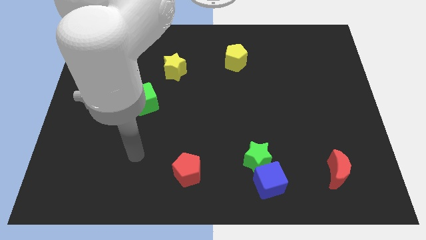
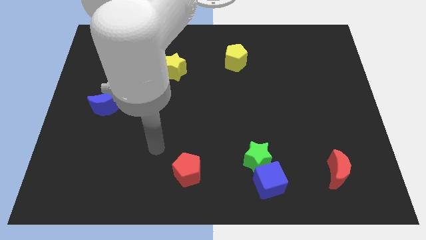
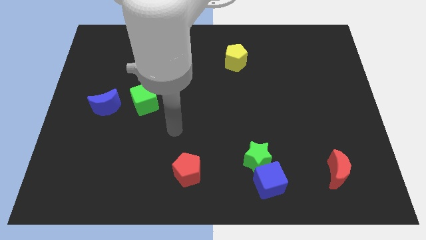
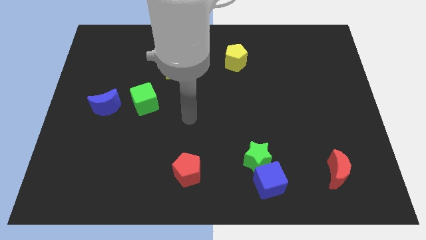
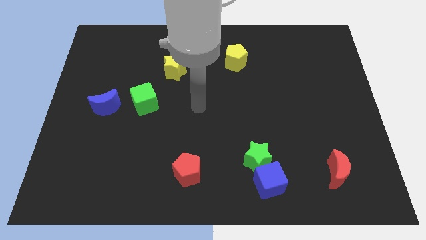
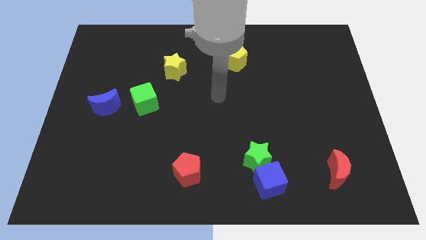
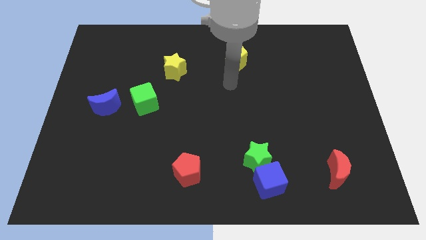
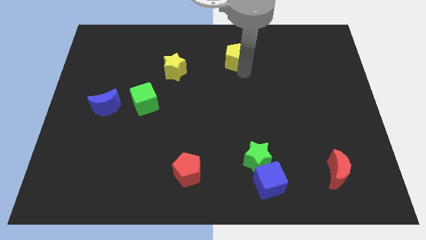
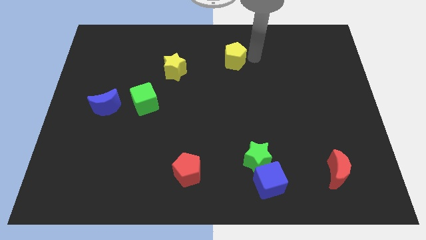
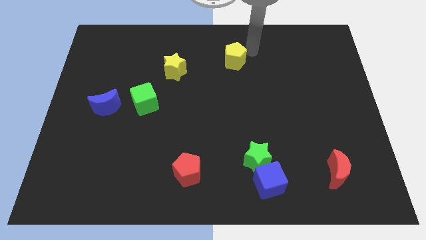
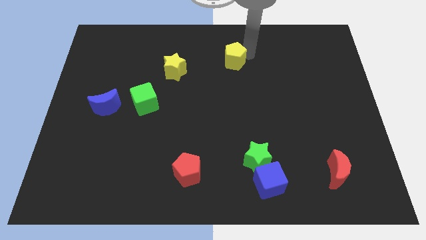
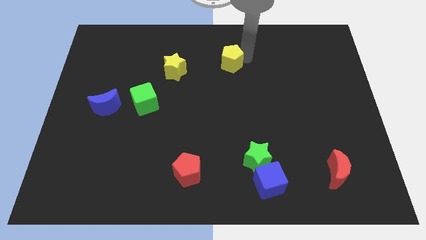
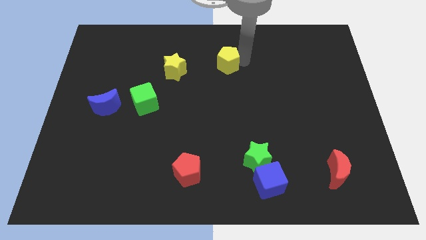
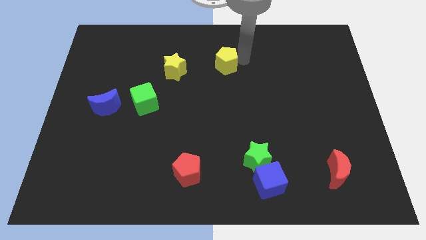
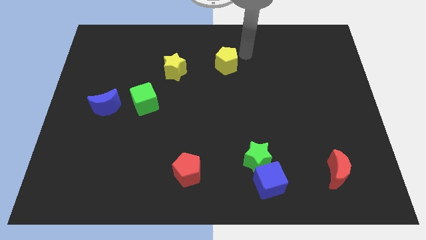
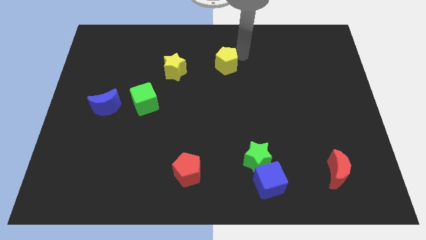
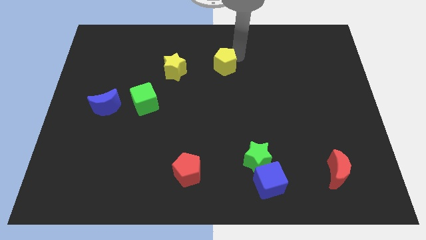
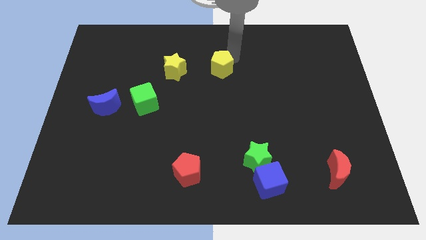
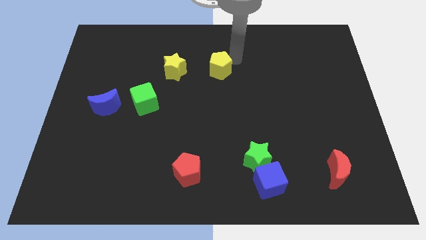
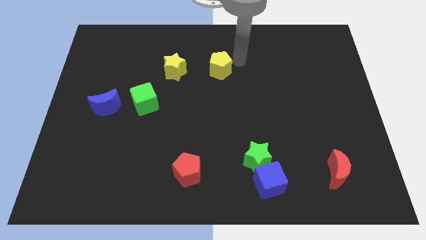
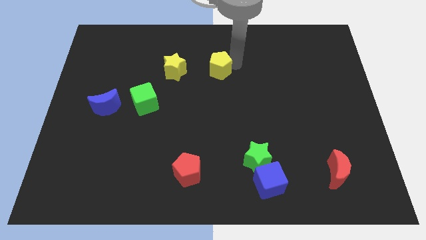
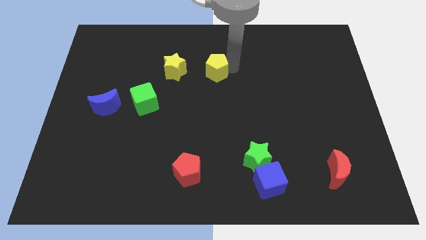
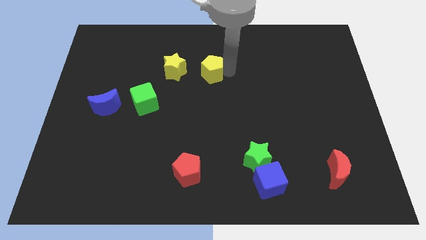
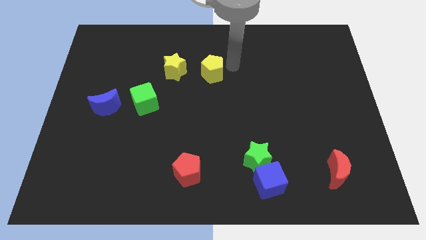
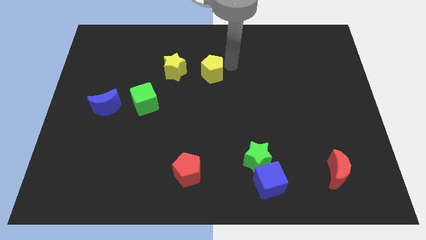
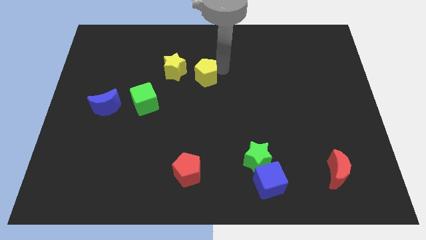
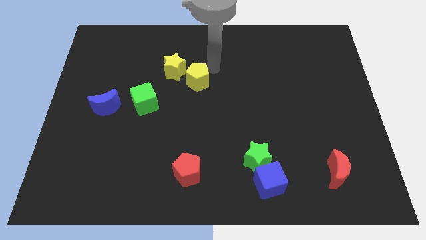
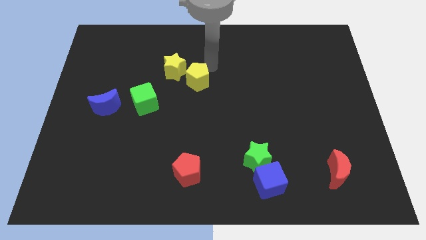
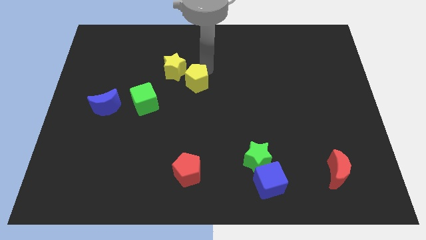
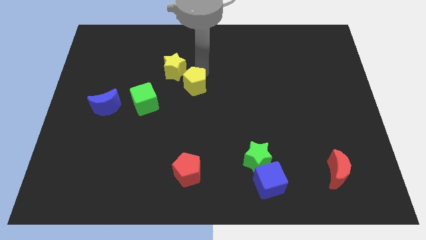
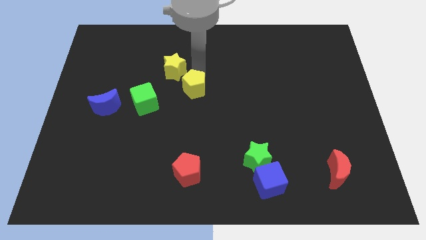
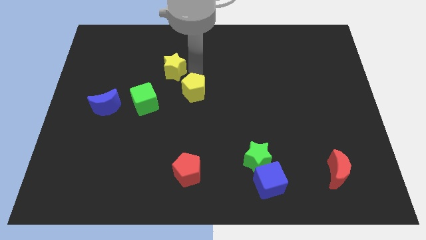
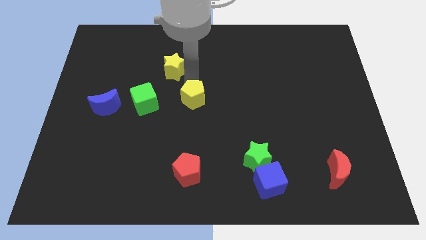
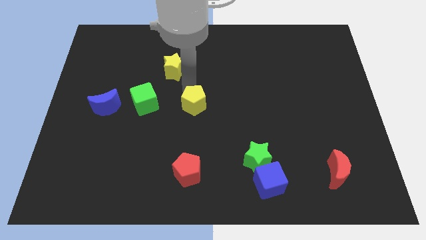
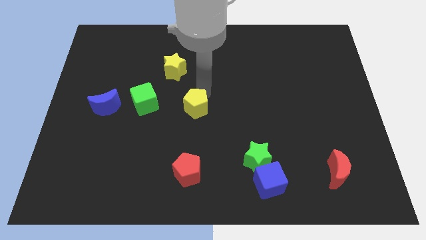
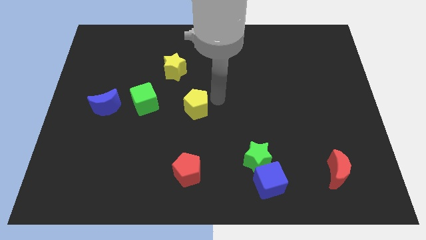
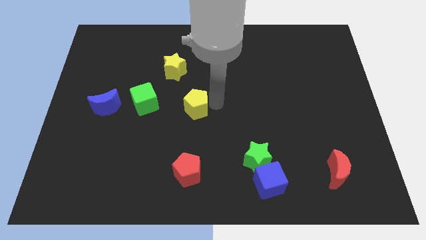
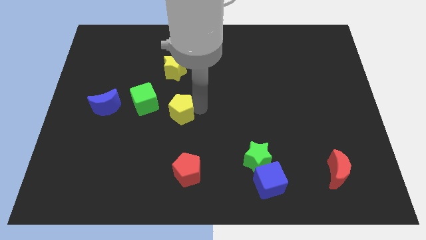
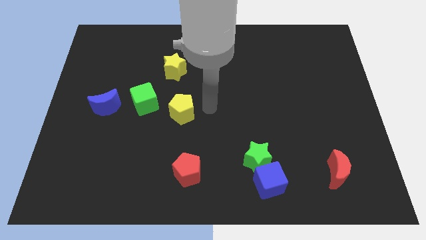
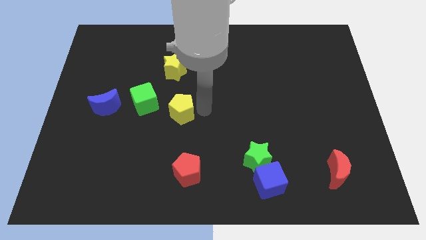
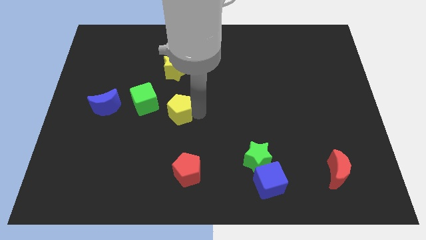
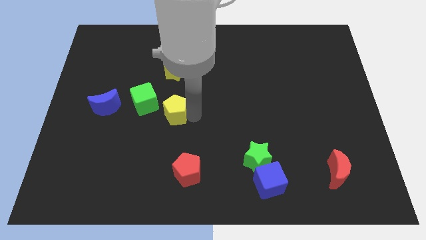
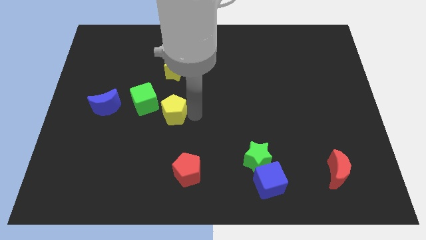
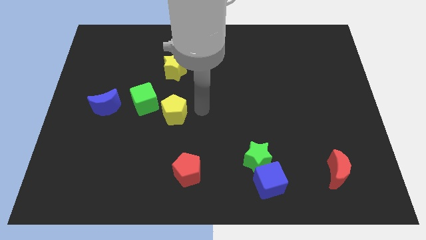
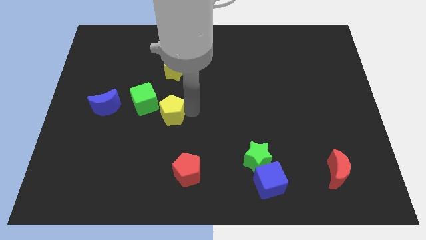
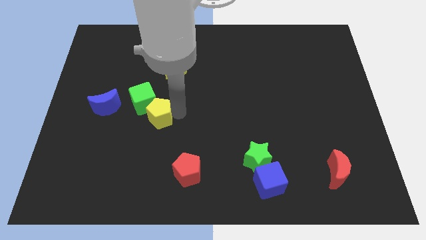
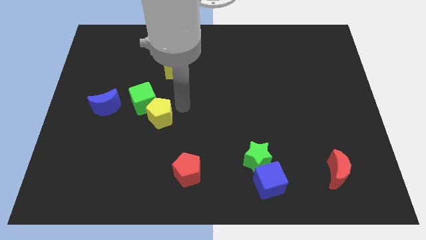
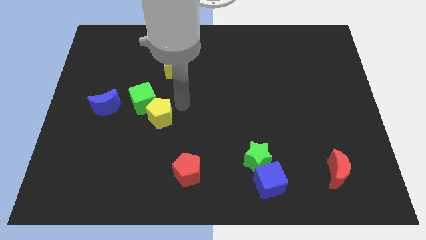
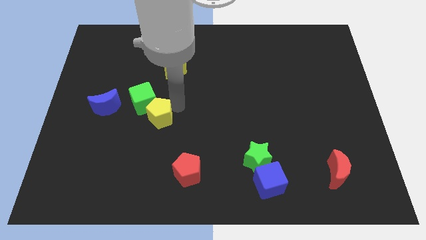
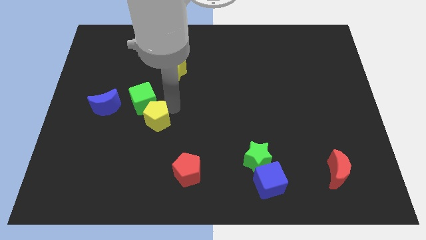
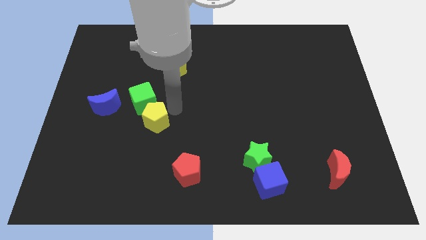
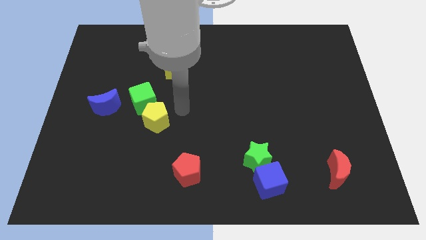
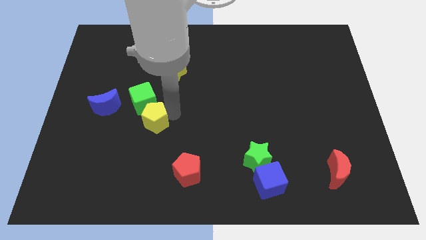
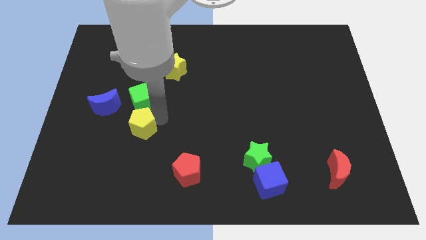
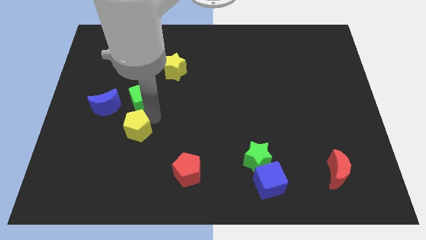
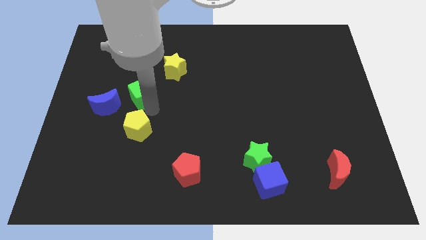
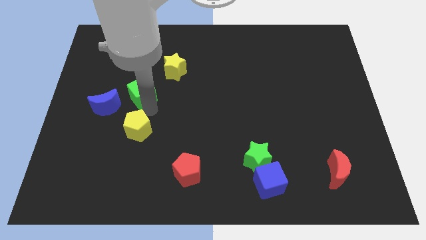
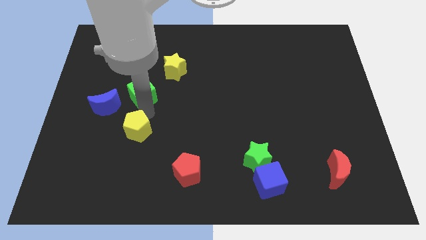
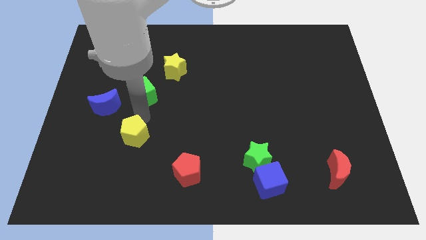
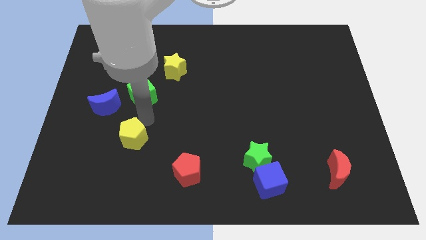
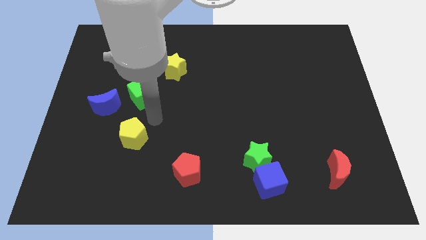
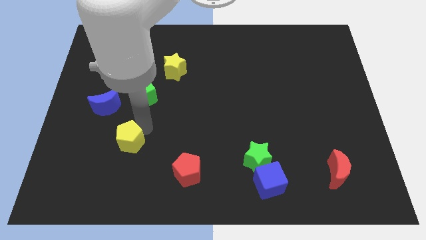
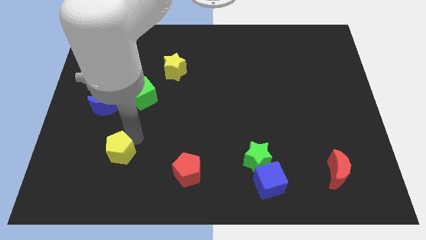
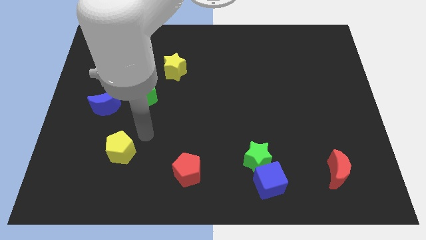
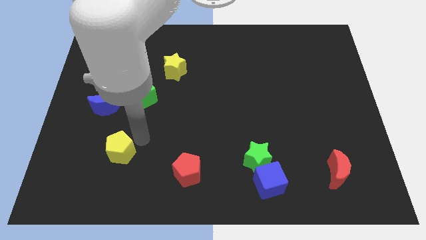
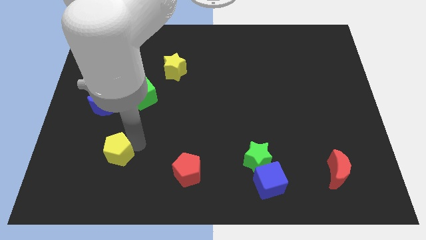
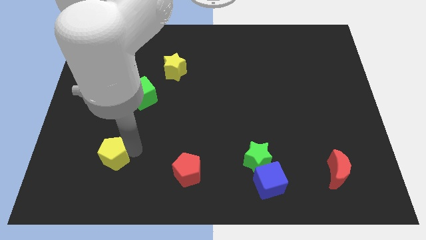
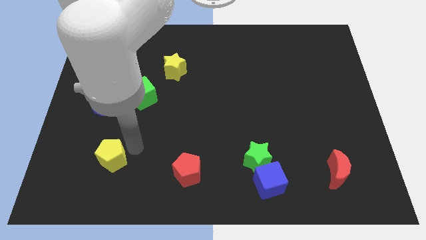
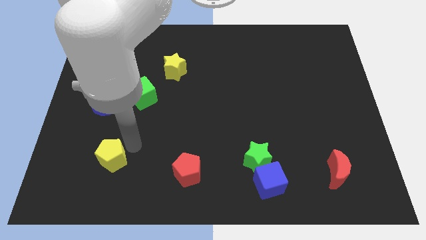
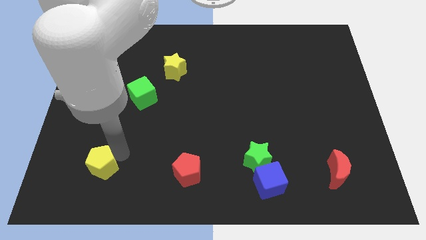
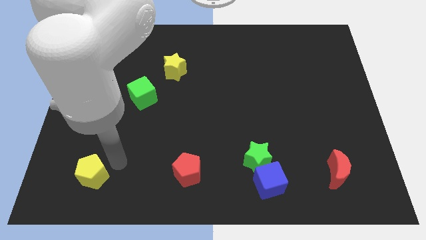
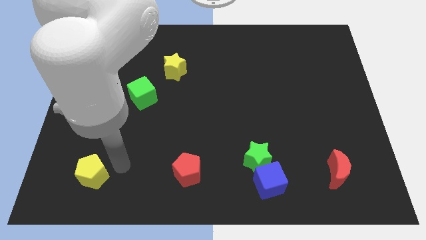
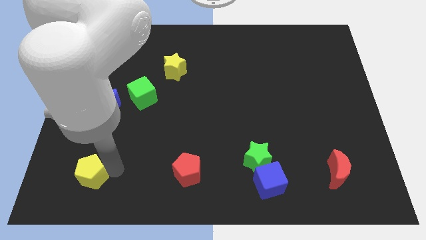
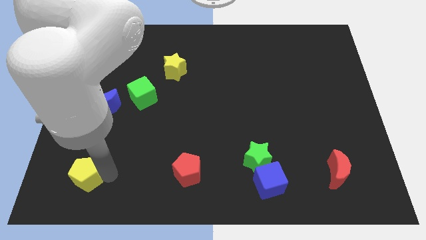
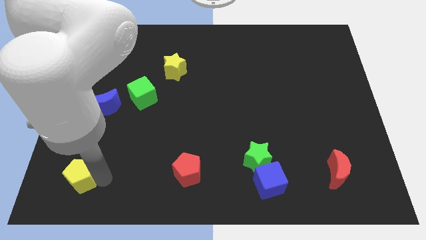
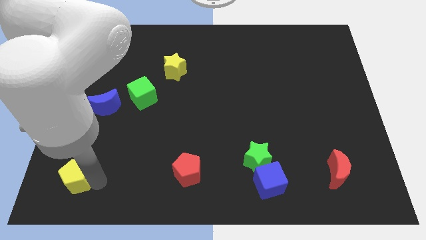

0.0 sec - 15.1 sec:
slide the yellow pentagon to the bottom left
